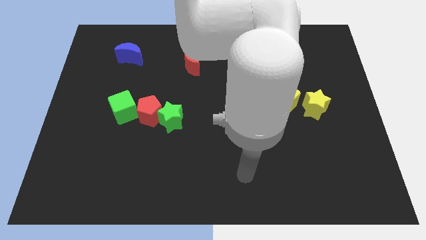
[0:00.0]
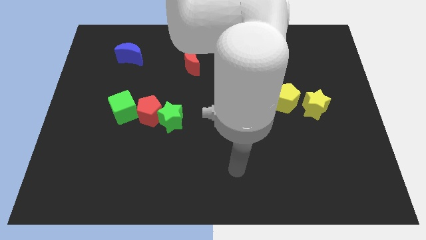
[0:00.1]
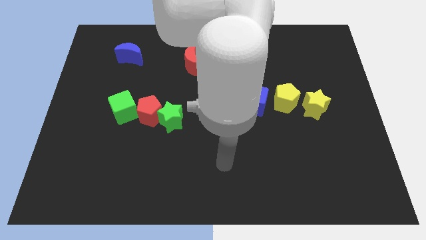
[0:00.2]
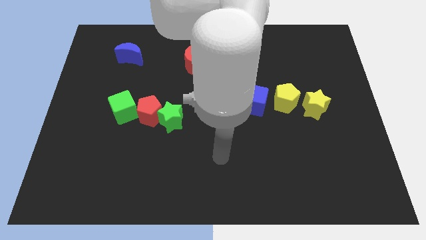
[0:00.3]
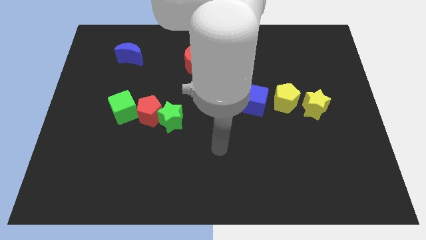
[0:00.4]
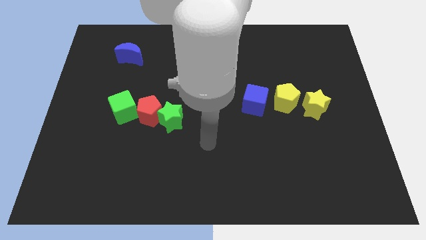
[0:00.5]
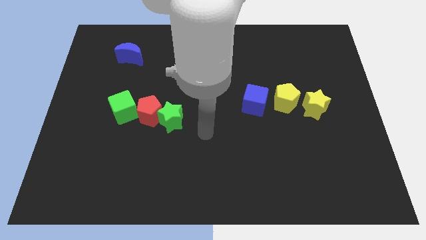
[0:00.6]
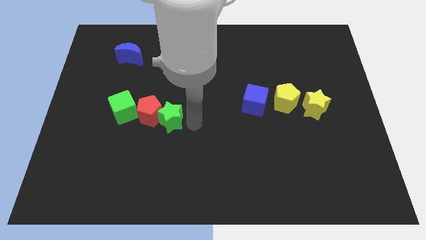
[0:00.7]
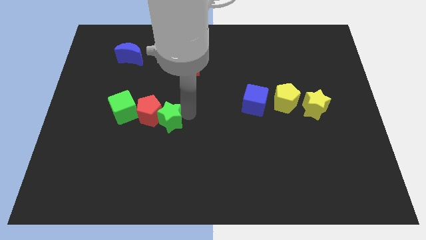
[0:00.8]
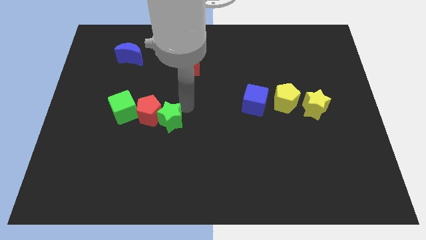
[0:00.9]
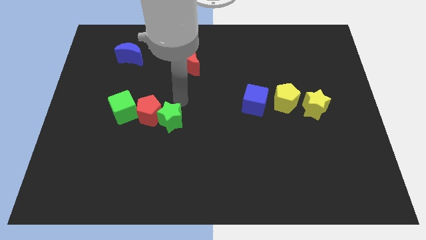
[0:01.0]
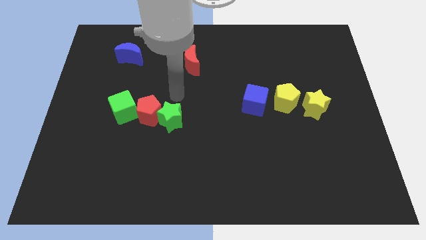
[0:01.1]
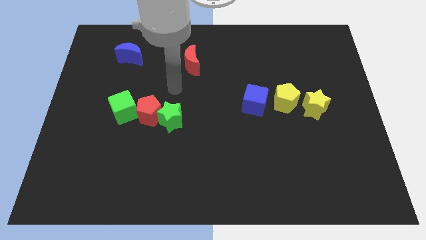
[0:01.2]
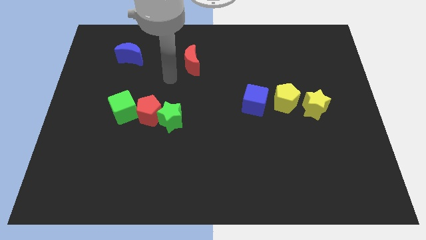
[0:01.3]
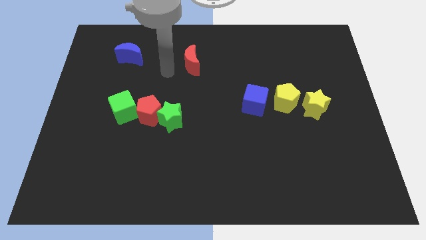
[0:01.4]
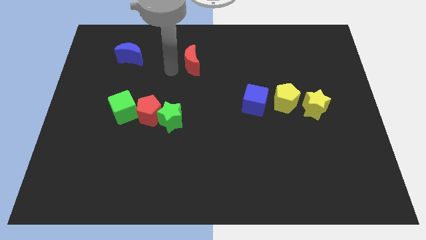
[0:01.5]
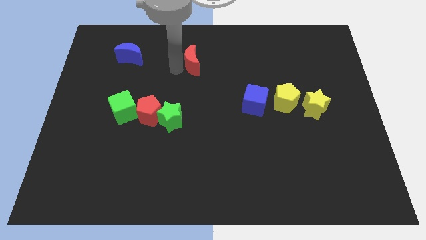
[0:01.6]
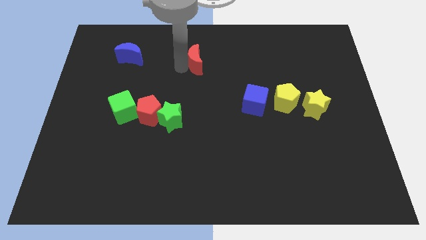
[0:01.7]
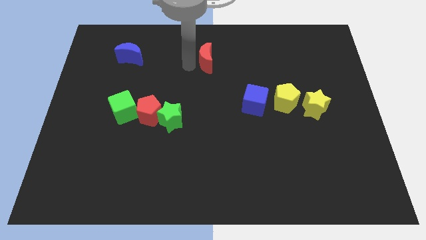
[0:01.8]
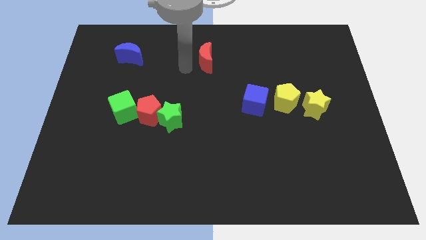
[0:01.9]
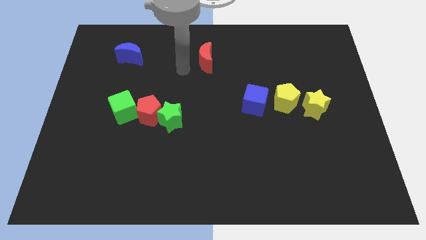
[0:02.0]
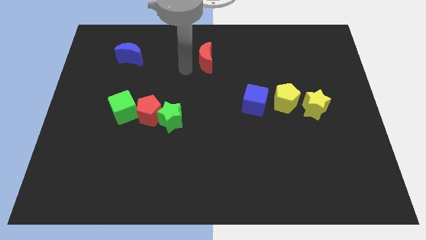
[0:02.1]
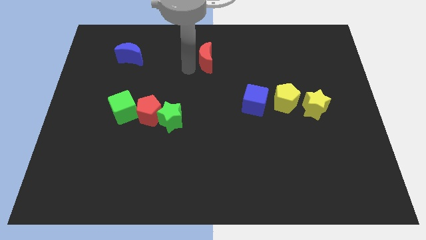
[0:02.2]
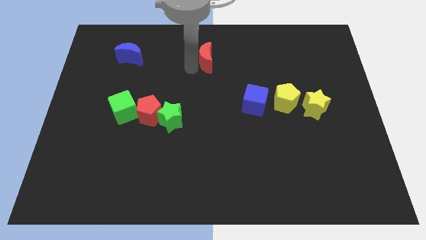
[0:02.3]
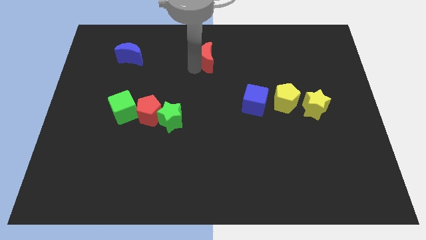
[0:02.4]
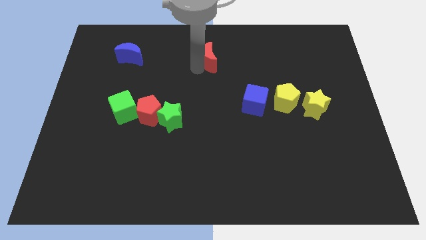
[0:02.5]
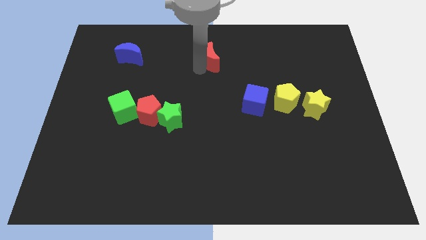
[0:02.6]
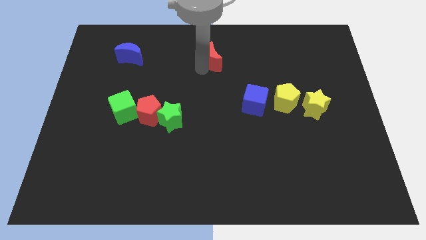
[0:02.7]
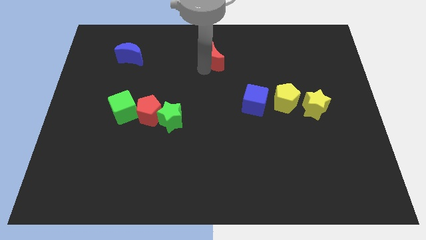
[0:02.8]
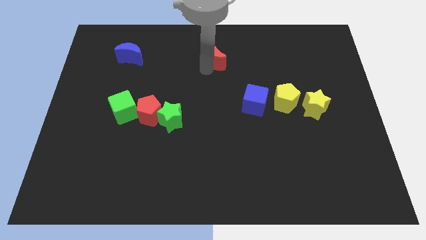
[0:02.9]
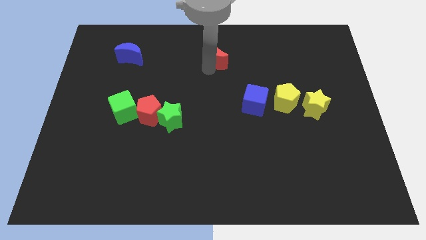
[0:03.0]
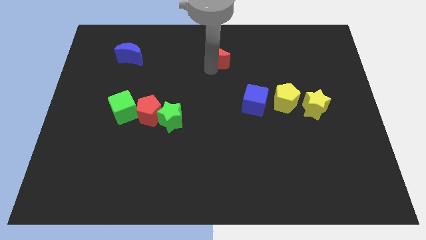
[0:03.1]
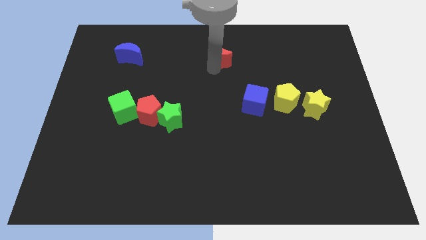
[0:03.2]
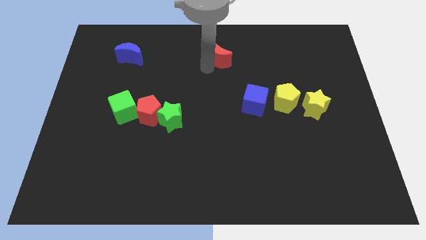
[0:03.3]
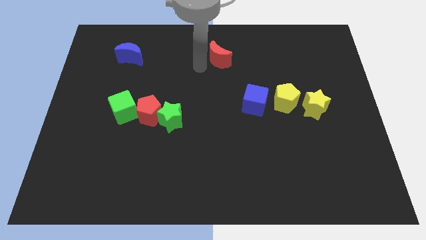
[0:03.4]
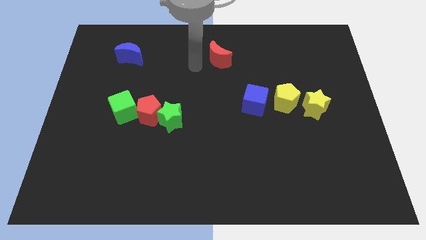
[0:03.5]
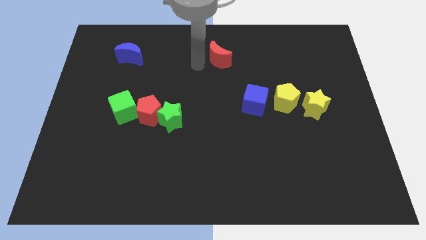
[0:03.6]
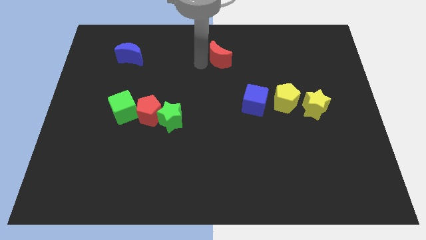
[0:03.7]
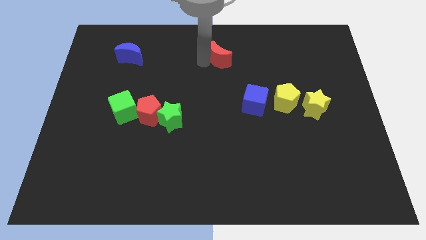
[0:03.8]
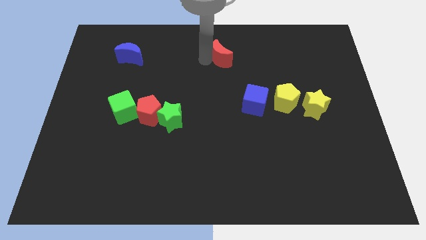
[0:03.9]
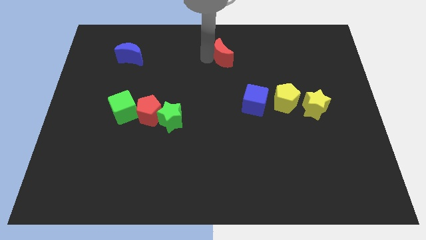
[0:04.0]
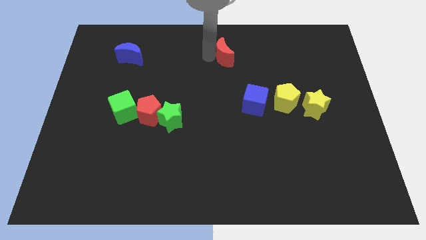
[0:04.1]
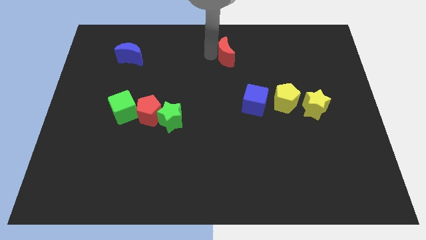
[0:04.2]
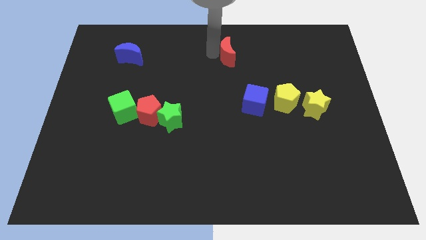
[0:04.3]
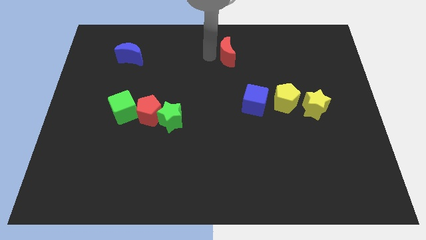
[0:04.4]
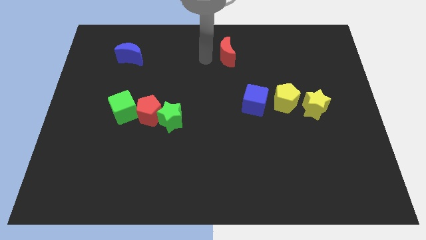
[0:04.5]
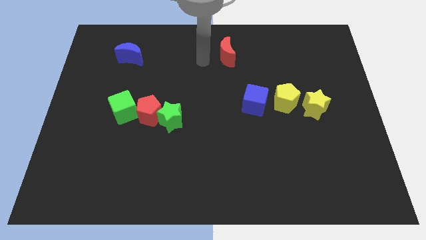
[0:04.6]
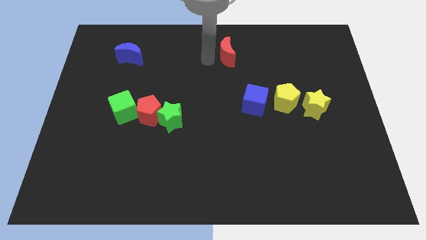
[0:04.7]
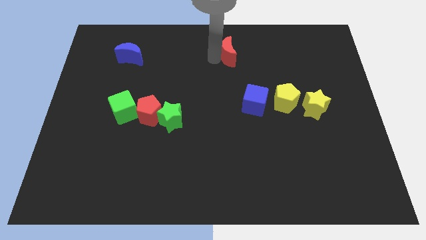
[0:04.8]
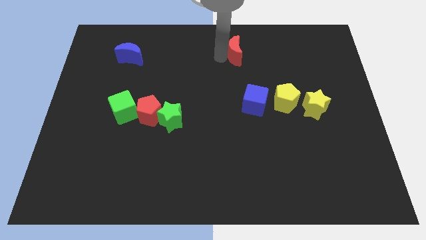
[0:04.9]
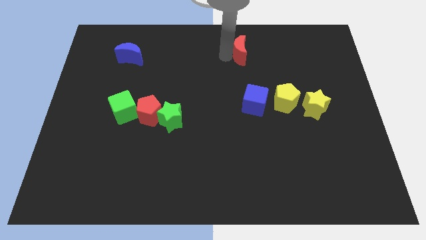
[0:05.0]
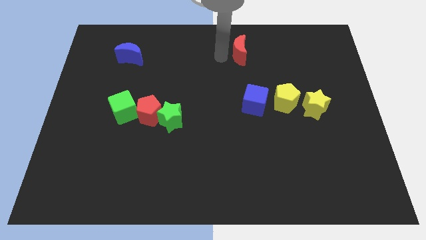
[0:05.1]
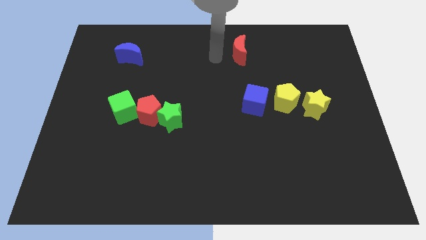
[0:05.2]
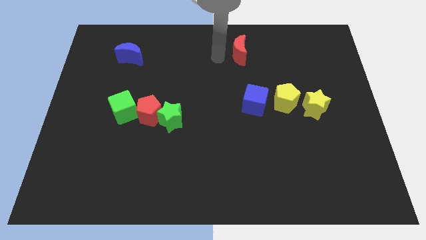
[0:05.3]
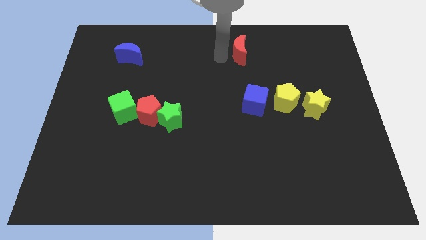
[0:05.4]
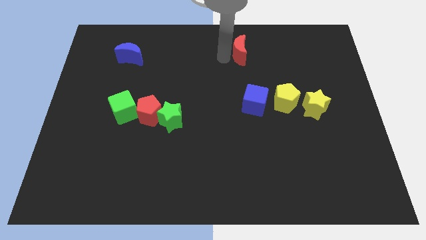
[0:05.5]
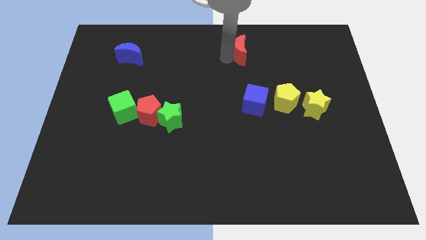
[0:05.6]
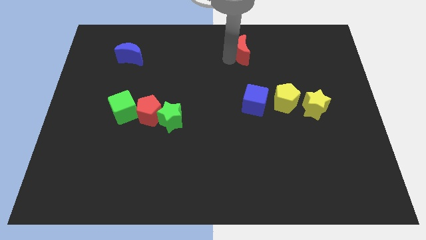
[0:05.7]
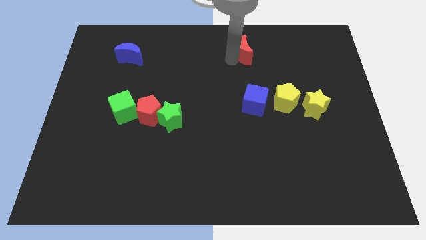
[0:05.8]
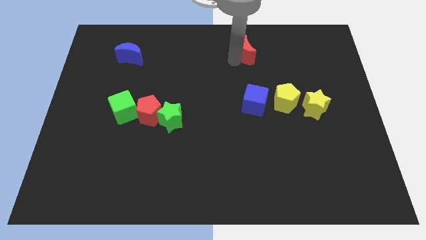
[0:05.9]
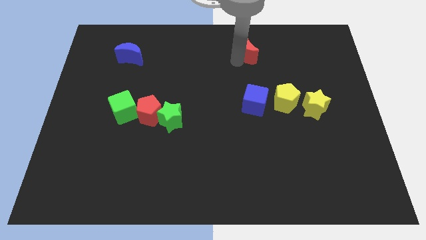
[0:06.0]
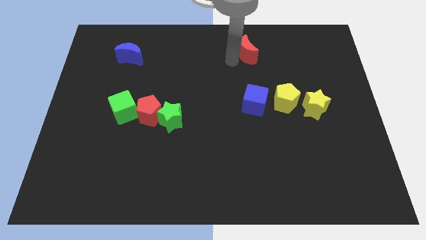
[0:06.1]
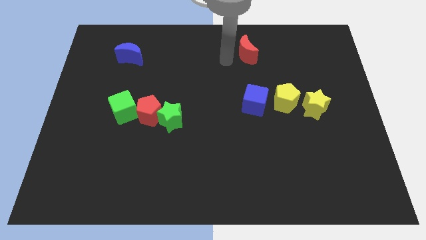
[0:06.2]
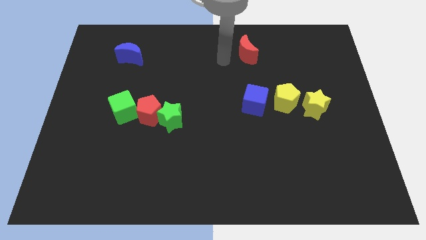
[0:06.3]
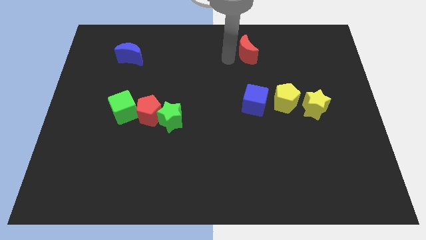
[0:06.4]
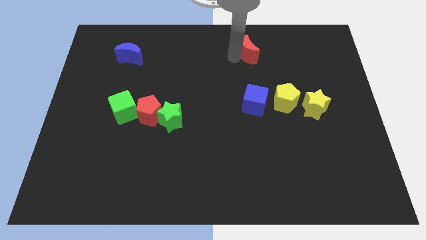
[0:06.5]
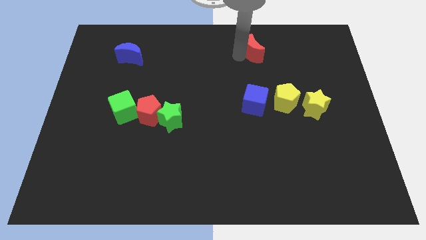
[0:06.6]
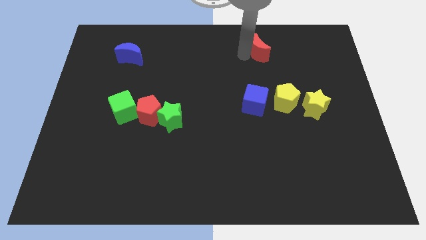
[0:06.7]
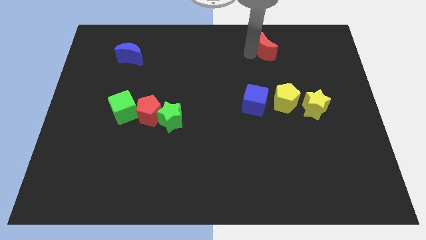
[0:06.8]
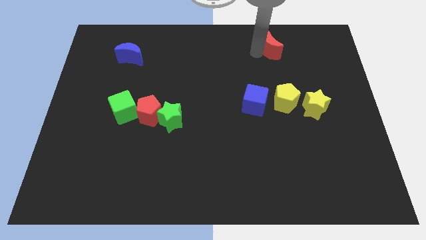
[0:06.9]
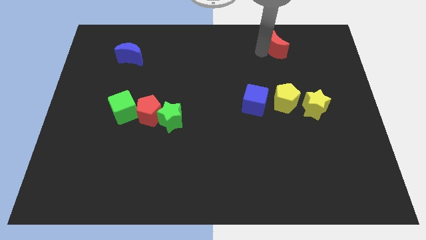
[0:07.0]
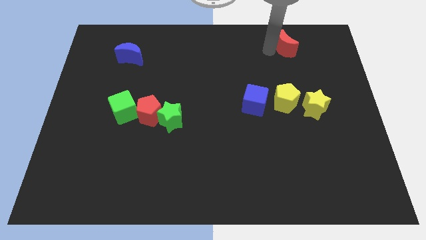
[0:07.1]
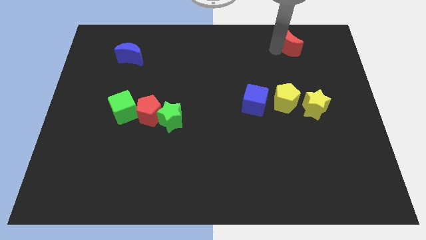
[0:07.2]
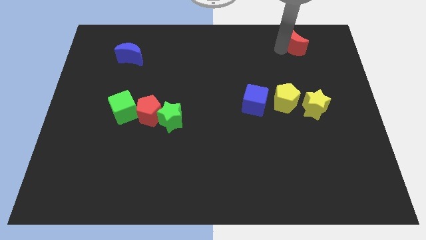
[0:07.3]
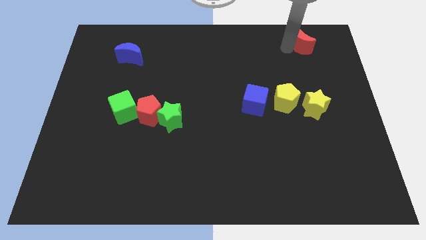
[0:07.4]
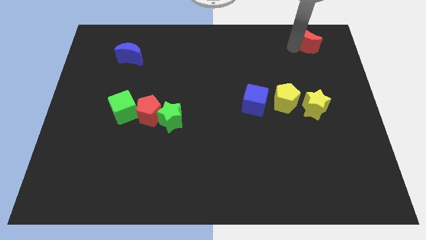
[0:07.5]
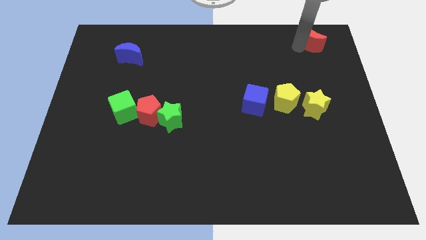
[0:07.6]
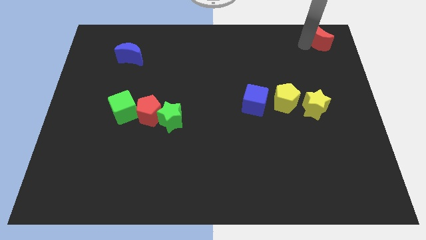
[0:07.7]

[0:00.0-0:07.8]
push the red moon to the upper right corner
